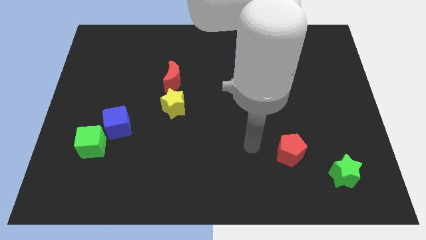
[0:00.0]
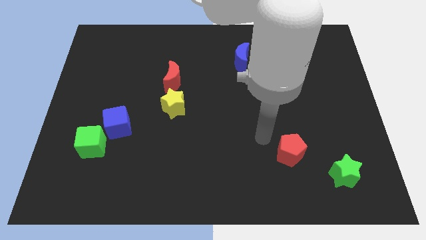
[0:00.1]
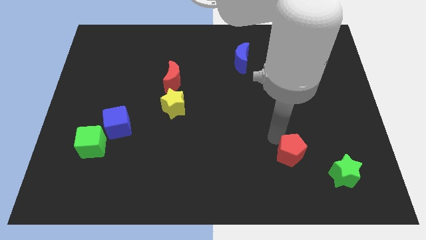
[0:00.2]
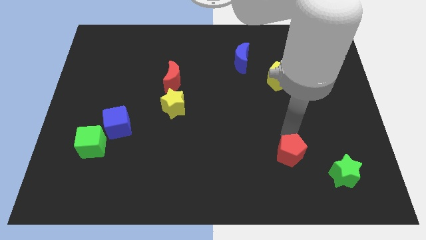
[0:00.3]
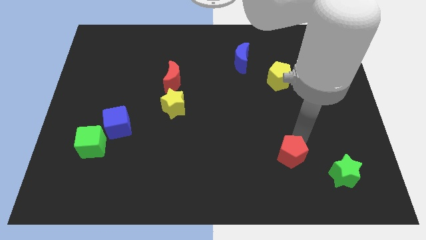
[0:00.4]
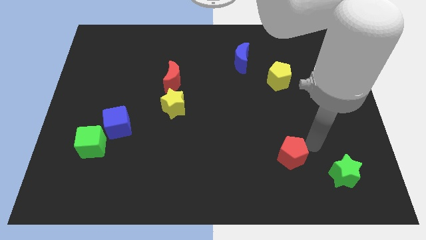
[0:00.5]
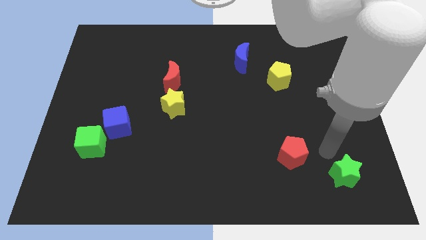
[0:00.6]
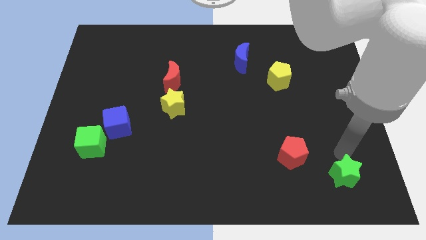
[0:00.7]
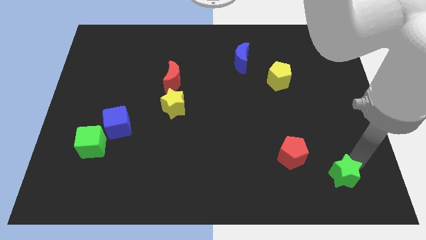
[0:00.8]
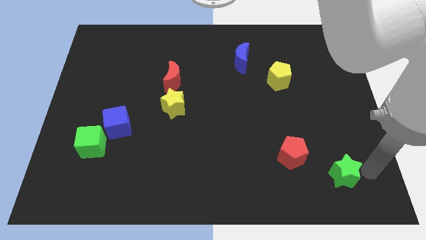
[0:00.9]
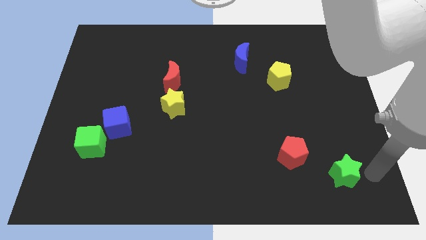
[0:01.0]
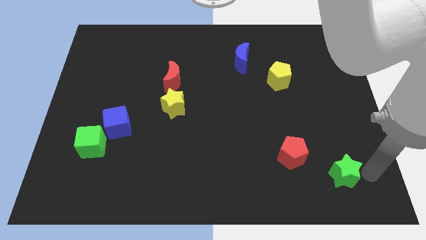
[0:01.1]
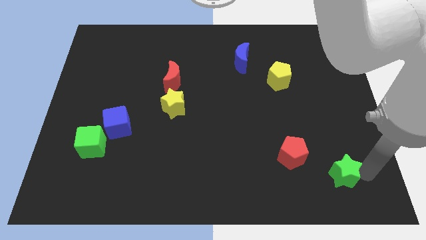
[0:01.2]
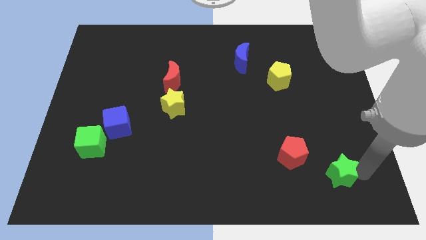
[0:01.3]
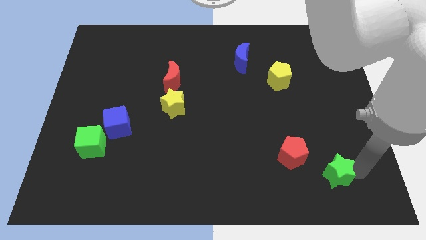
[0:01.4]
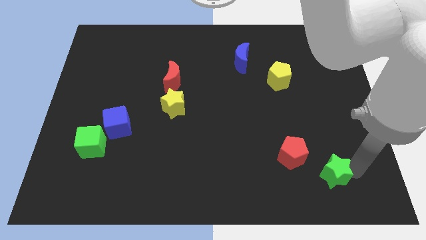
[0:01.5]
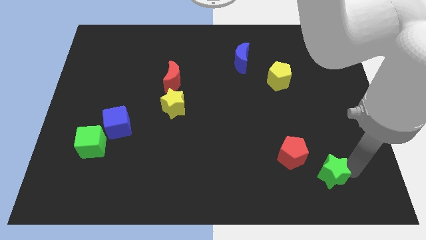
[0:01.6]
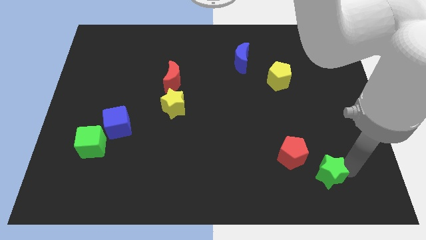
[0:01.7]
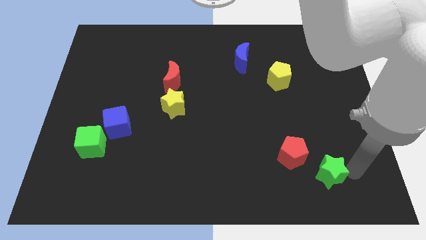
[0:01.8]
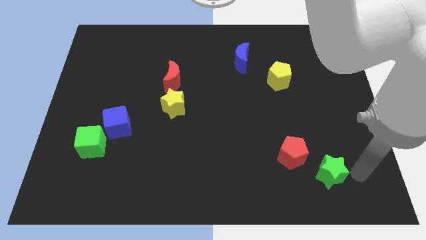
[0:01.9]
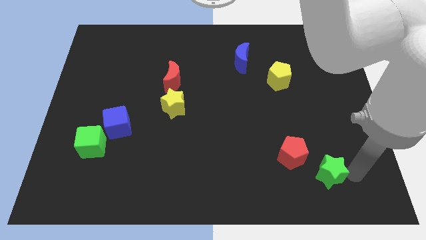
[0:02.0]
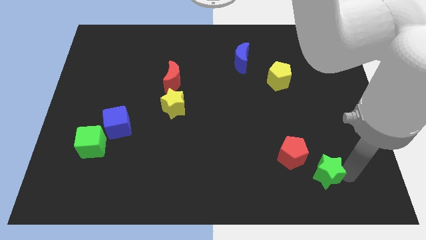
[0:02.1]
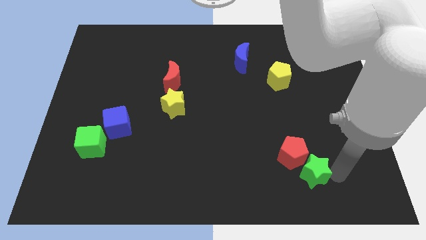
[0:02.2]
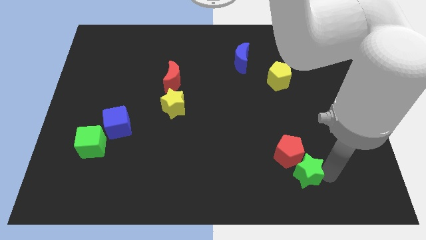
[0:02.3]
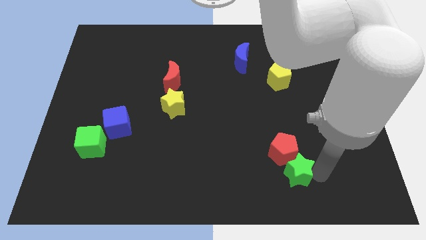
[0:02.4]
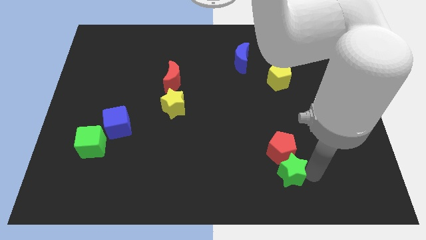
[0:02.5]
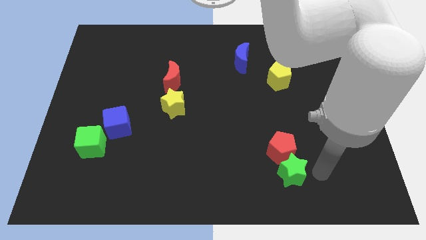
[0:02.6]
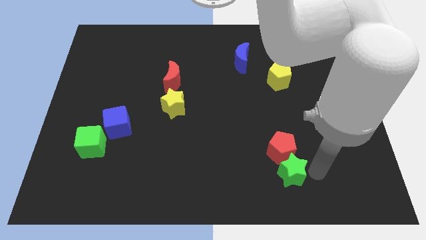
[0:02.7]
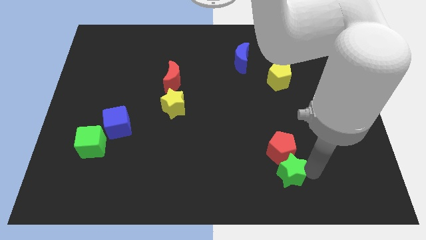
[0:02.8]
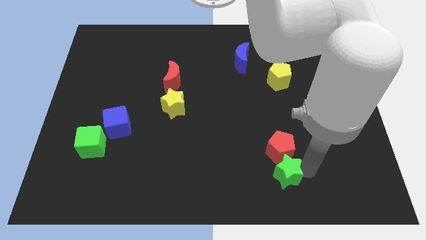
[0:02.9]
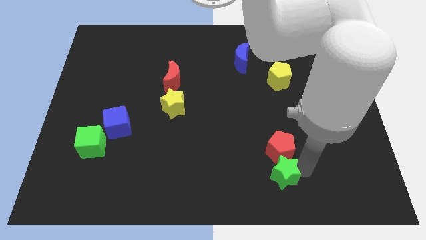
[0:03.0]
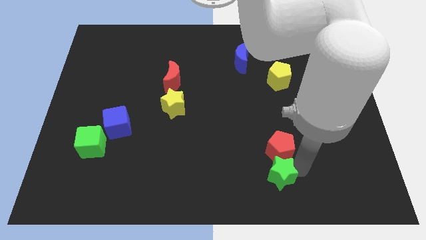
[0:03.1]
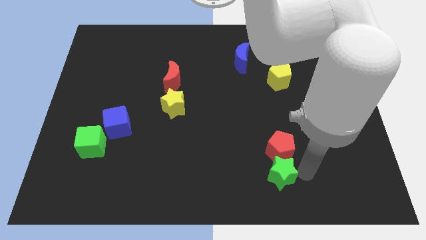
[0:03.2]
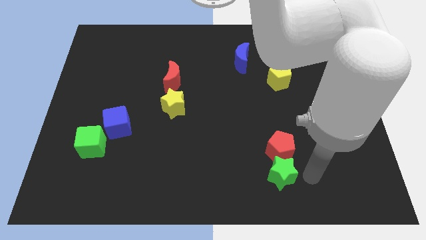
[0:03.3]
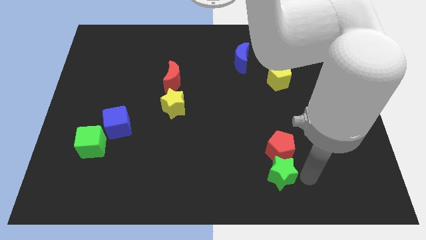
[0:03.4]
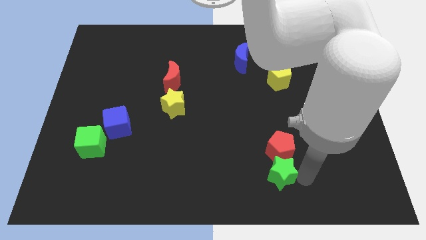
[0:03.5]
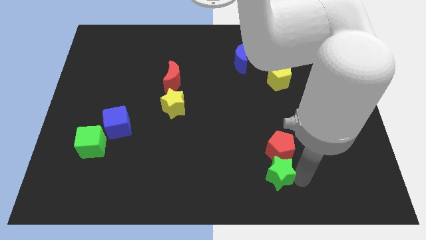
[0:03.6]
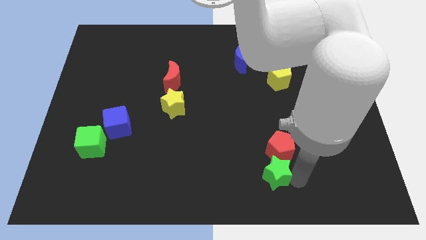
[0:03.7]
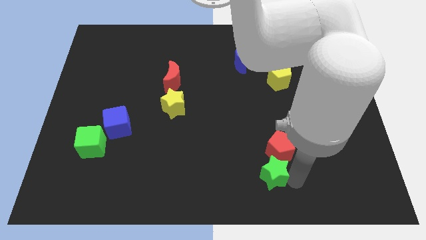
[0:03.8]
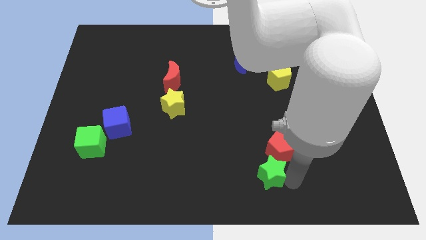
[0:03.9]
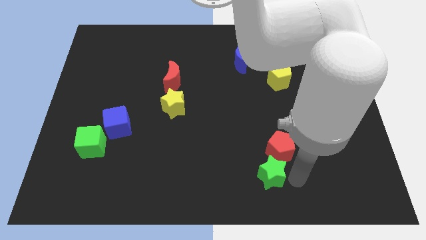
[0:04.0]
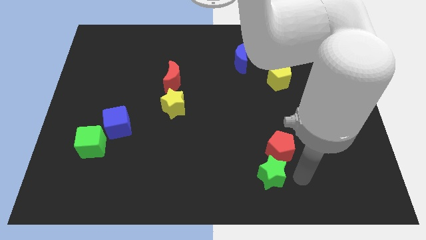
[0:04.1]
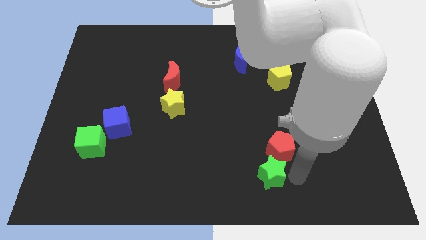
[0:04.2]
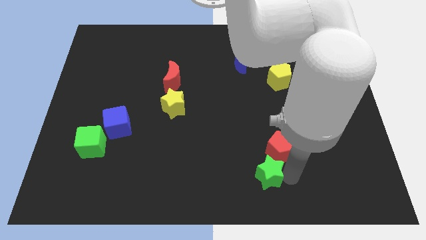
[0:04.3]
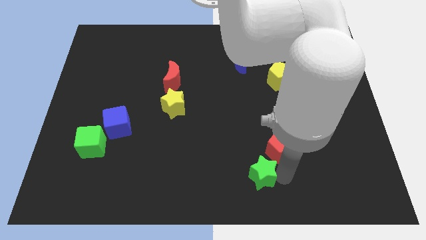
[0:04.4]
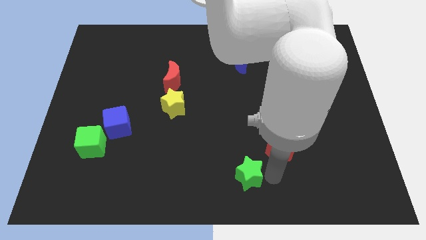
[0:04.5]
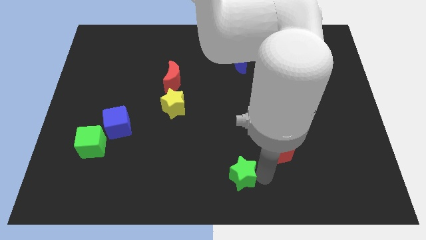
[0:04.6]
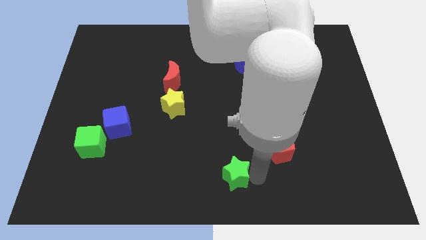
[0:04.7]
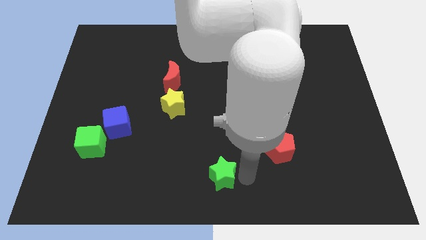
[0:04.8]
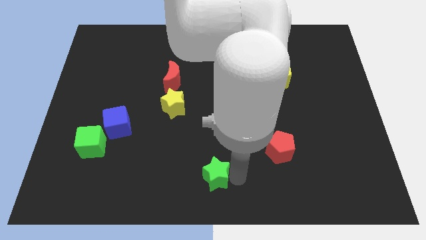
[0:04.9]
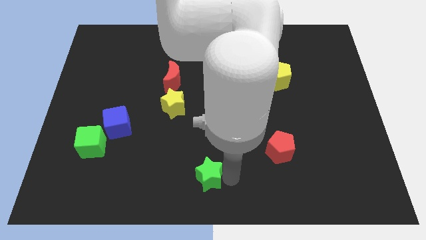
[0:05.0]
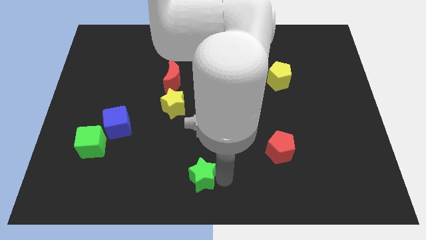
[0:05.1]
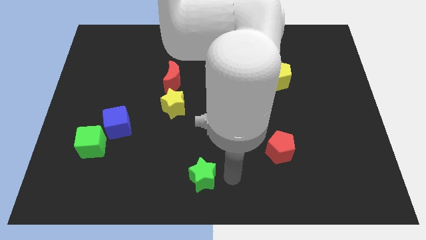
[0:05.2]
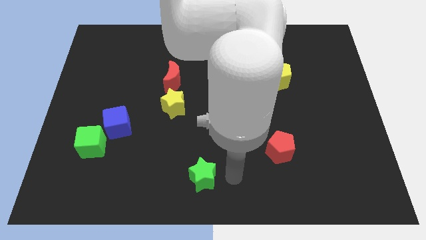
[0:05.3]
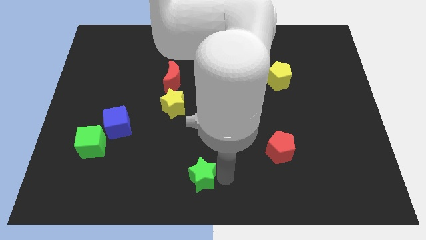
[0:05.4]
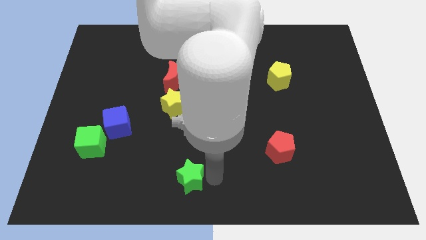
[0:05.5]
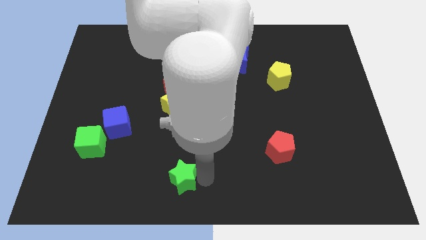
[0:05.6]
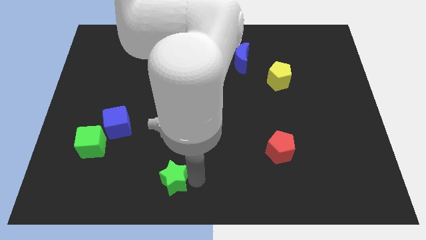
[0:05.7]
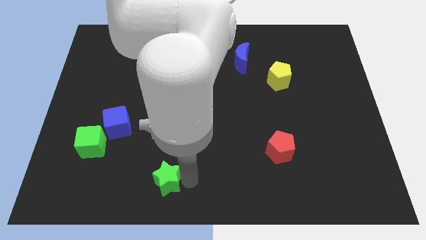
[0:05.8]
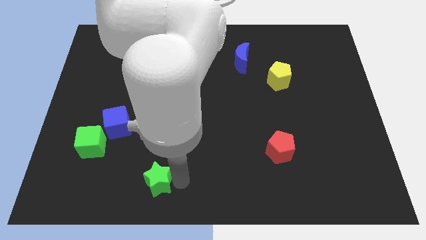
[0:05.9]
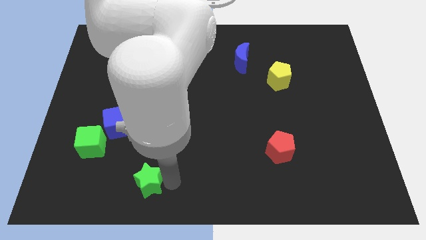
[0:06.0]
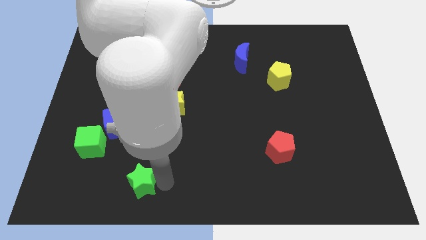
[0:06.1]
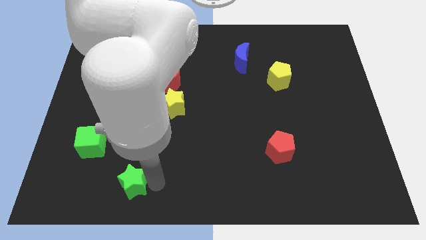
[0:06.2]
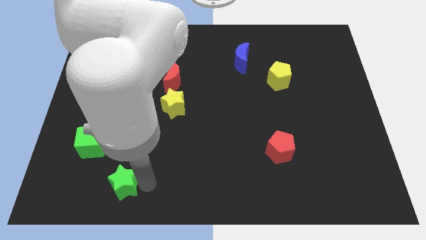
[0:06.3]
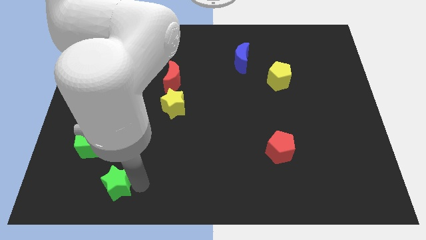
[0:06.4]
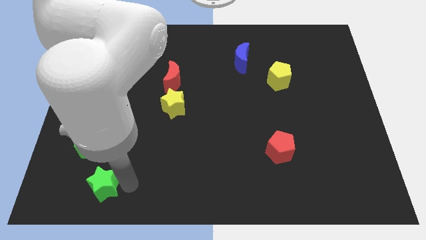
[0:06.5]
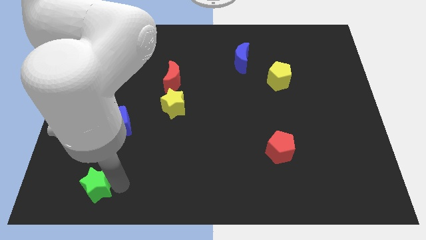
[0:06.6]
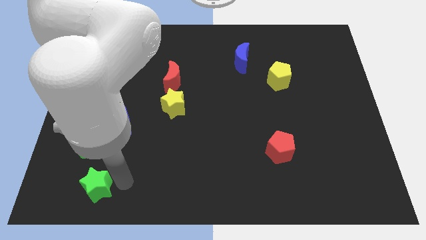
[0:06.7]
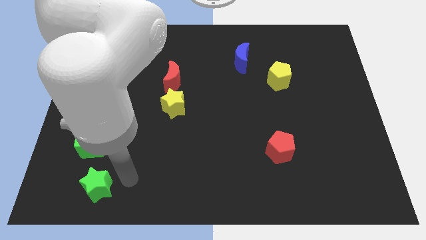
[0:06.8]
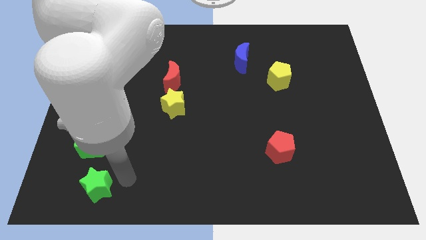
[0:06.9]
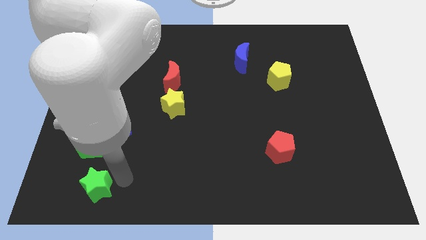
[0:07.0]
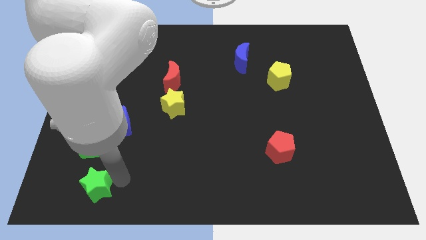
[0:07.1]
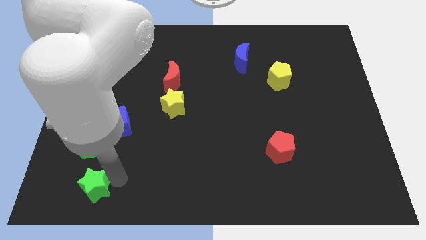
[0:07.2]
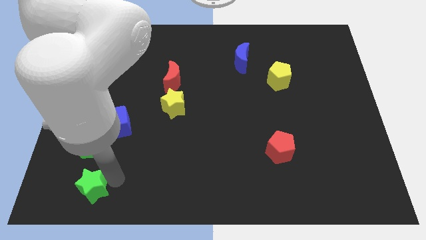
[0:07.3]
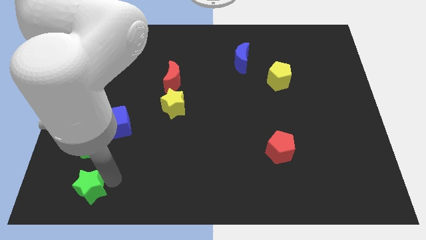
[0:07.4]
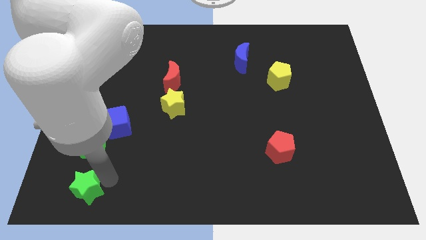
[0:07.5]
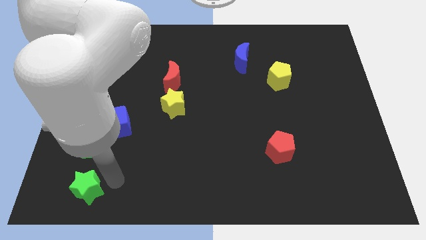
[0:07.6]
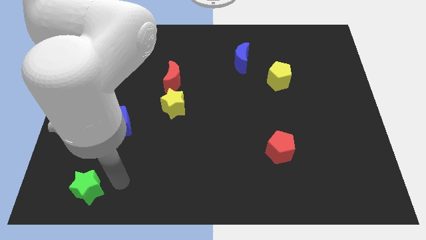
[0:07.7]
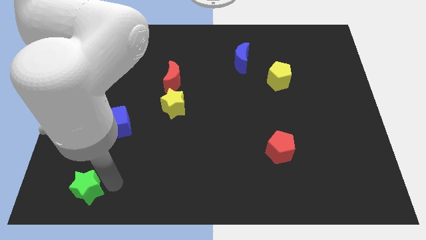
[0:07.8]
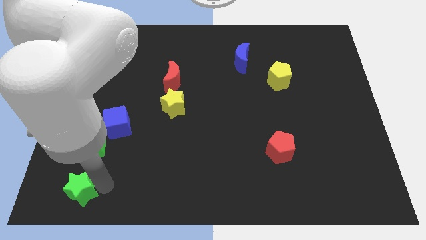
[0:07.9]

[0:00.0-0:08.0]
slide the green star to the bottom left
